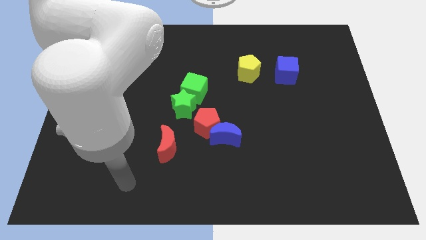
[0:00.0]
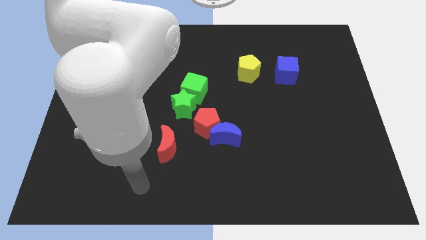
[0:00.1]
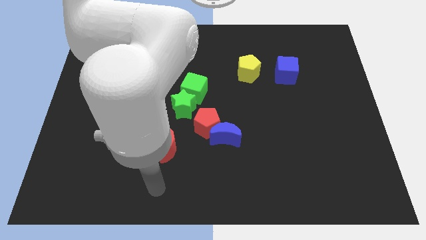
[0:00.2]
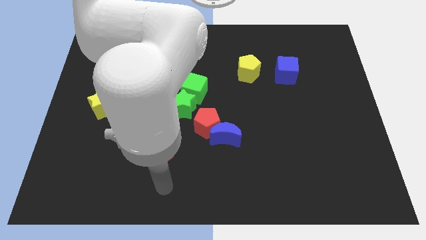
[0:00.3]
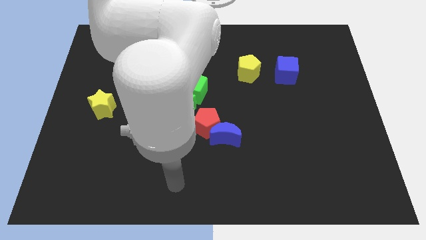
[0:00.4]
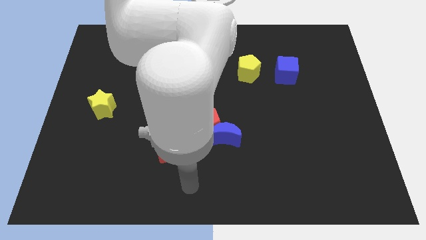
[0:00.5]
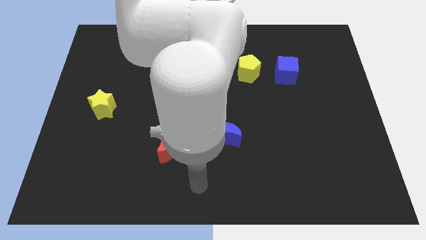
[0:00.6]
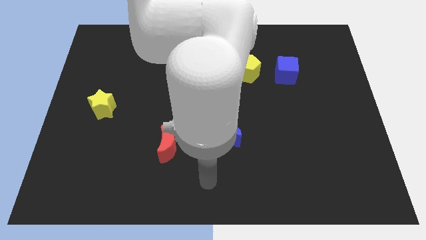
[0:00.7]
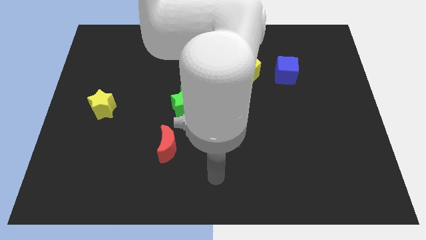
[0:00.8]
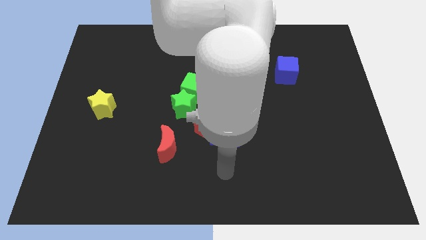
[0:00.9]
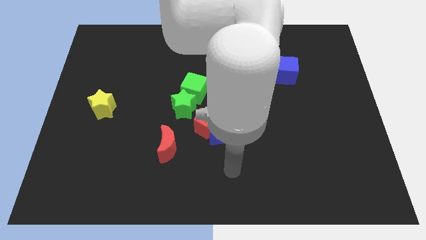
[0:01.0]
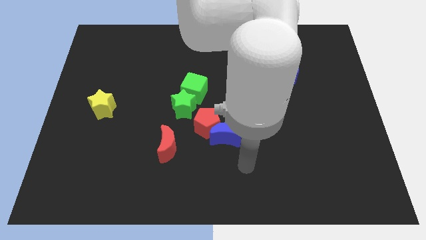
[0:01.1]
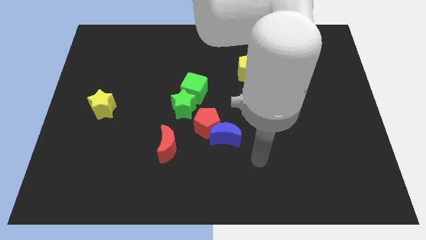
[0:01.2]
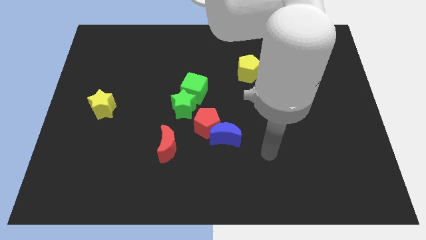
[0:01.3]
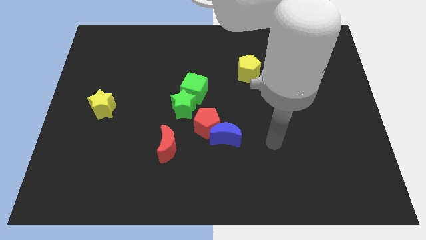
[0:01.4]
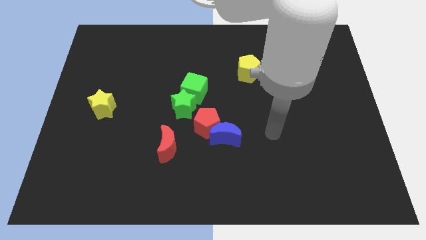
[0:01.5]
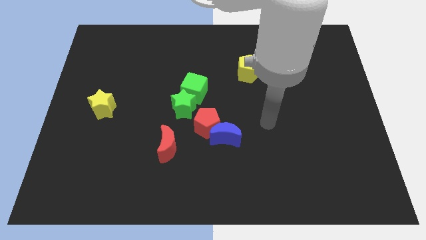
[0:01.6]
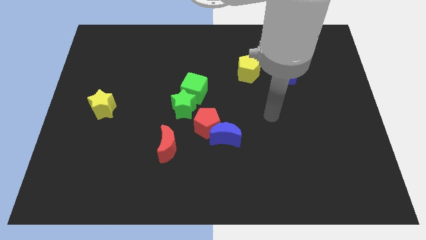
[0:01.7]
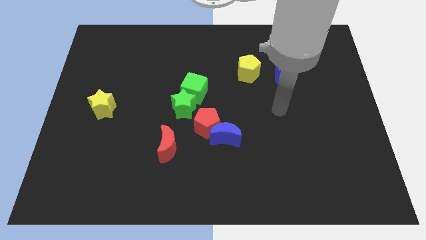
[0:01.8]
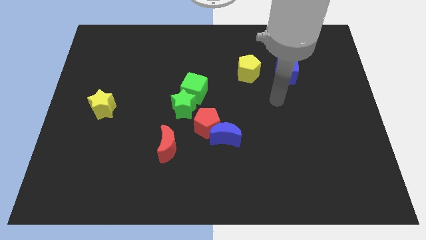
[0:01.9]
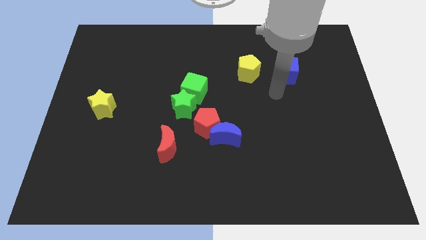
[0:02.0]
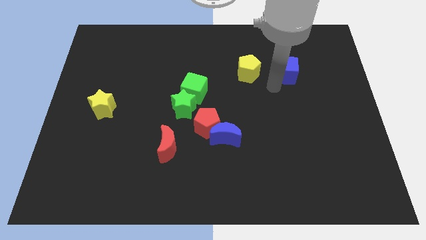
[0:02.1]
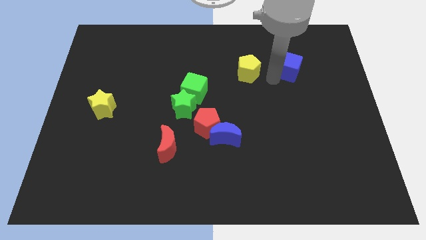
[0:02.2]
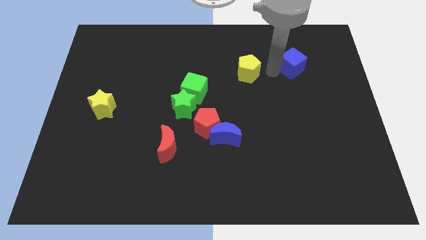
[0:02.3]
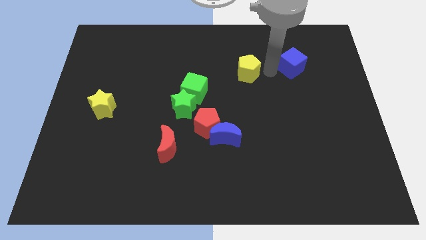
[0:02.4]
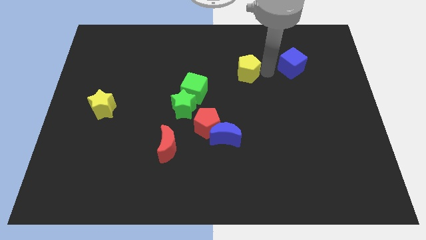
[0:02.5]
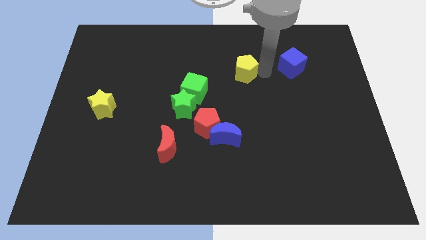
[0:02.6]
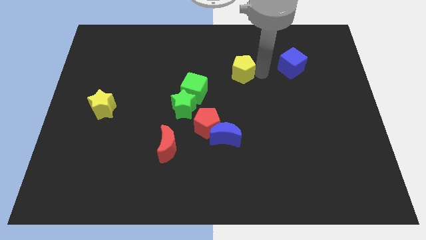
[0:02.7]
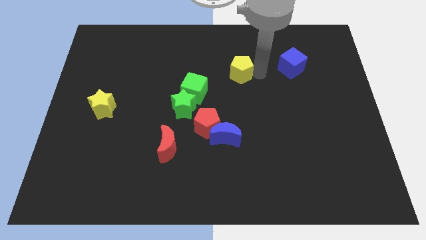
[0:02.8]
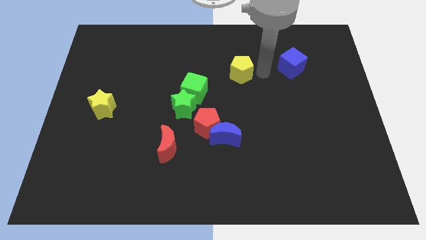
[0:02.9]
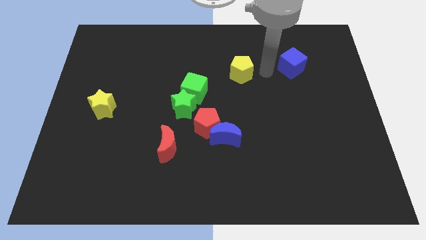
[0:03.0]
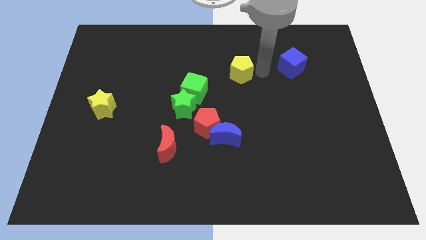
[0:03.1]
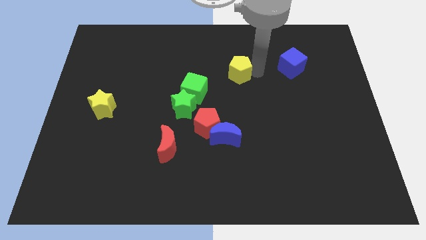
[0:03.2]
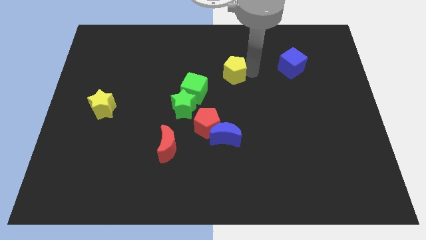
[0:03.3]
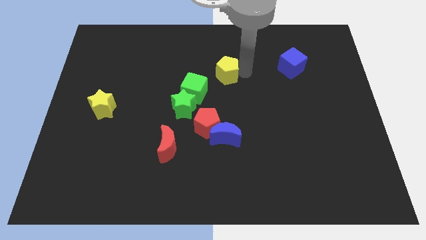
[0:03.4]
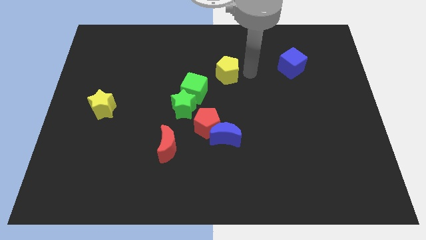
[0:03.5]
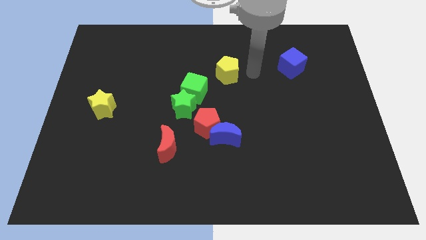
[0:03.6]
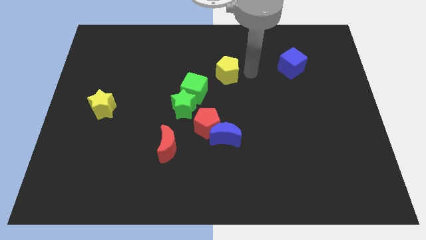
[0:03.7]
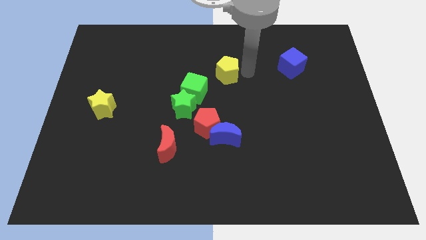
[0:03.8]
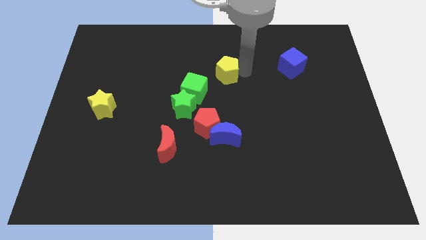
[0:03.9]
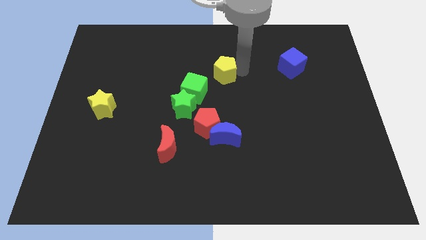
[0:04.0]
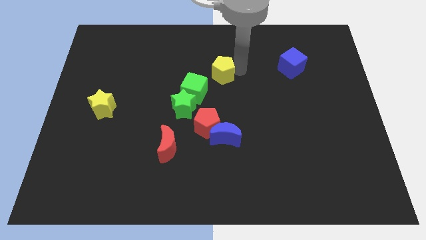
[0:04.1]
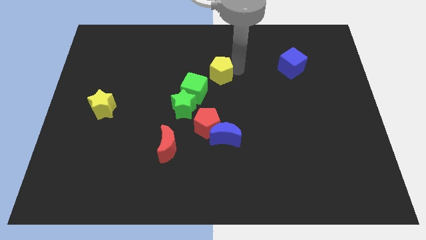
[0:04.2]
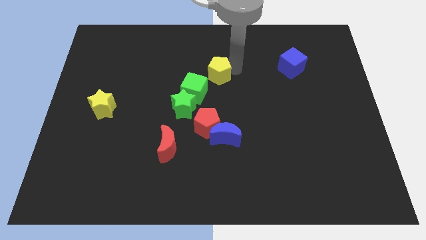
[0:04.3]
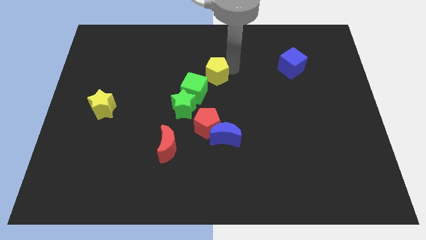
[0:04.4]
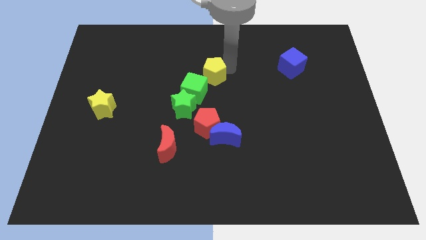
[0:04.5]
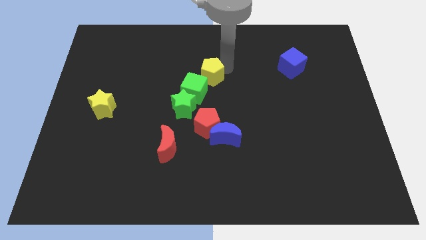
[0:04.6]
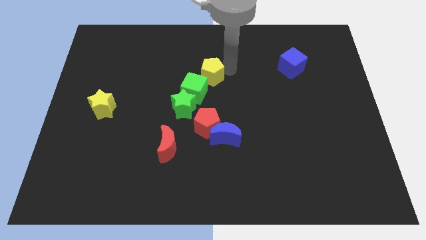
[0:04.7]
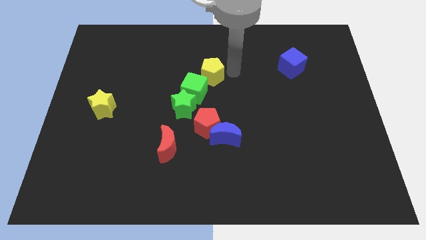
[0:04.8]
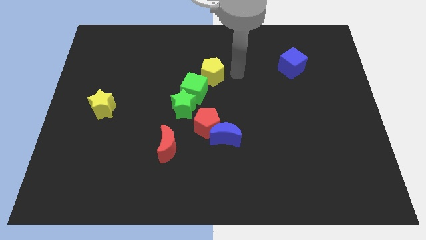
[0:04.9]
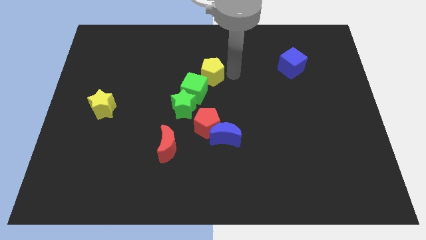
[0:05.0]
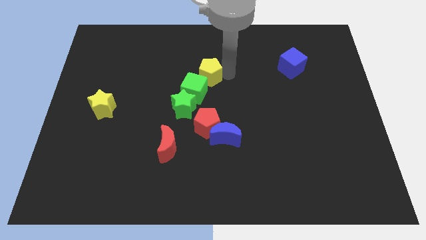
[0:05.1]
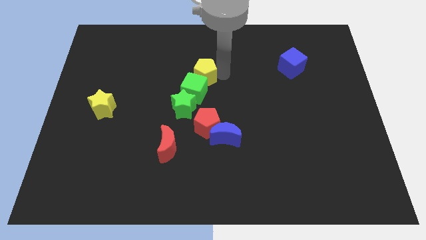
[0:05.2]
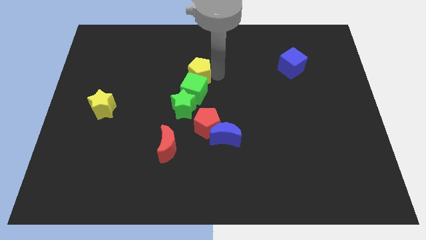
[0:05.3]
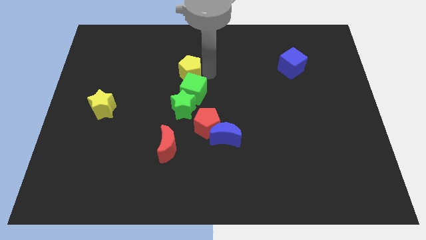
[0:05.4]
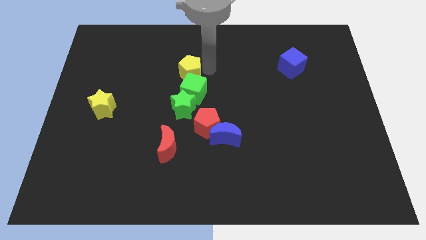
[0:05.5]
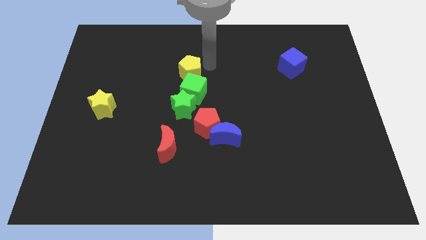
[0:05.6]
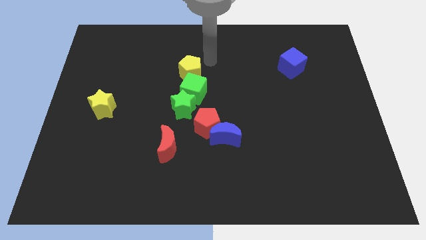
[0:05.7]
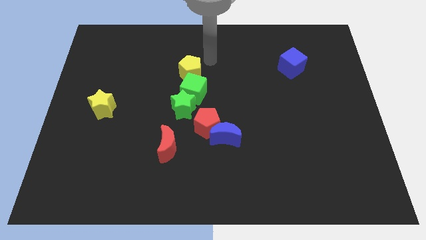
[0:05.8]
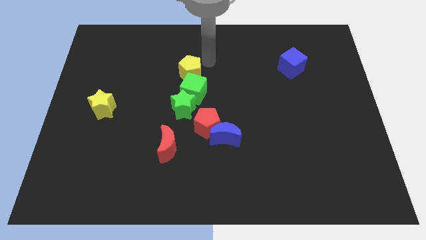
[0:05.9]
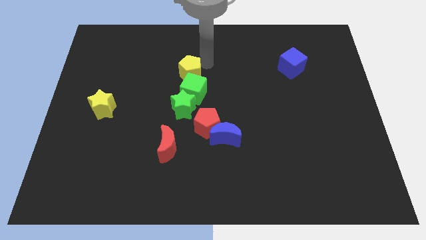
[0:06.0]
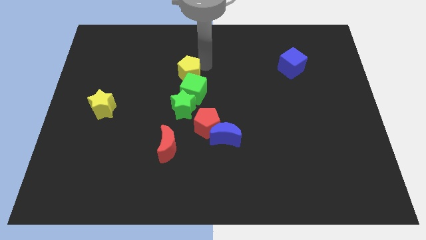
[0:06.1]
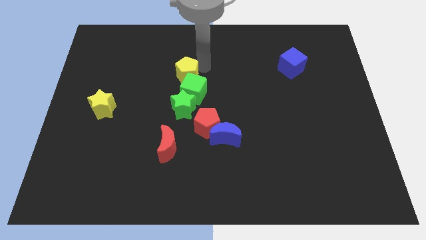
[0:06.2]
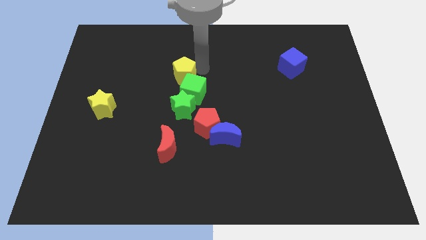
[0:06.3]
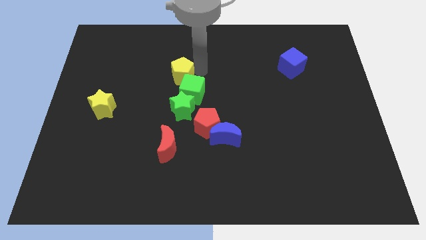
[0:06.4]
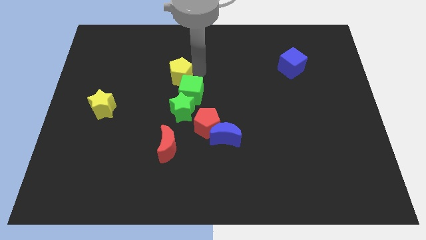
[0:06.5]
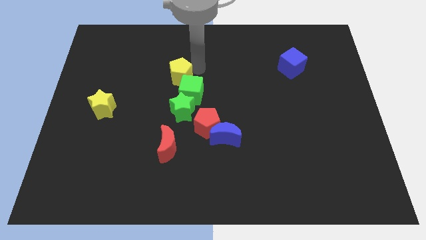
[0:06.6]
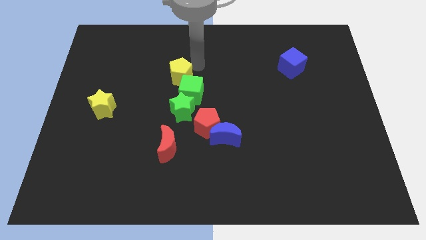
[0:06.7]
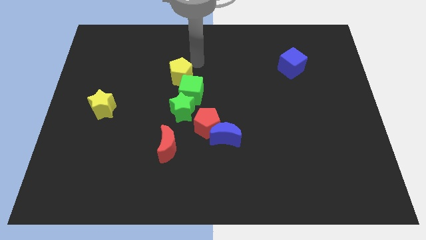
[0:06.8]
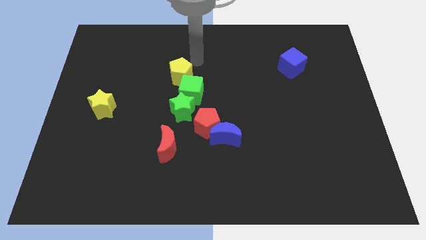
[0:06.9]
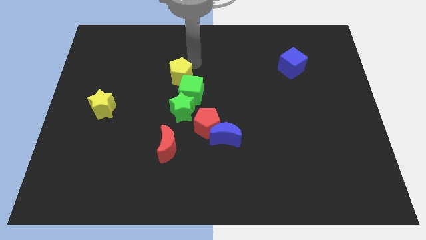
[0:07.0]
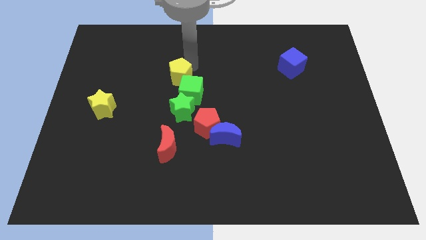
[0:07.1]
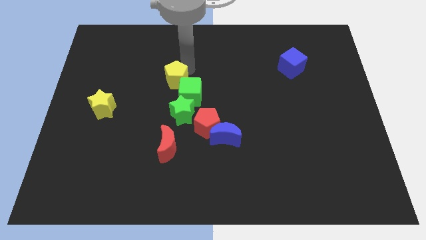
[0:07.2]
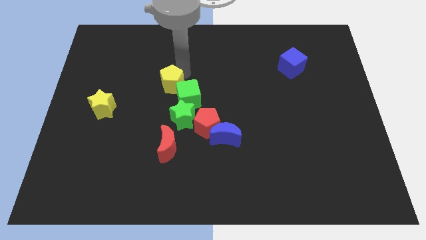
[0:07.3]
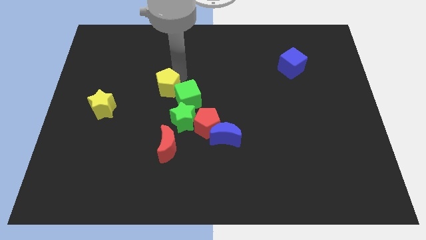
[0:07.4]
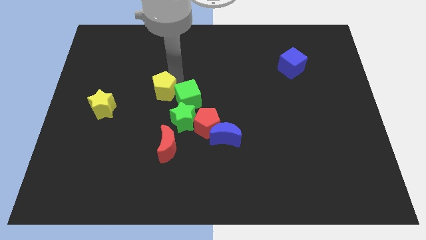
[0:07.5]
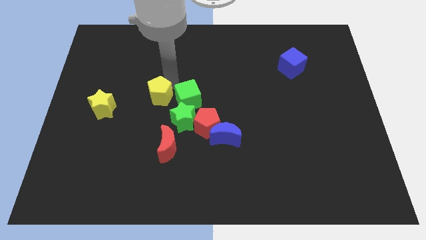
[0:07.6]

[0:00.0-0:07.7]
put the yellow pentagon just right of the yellow star

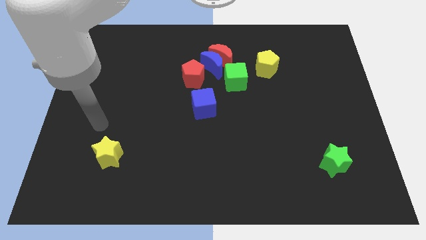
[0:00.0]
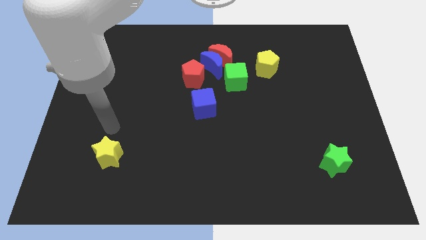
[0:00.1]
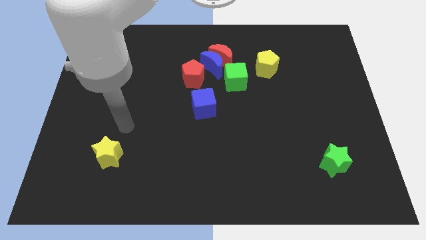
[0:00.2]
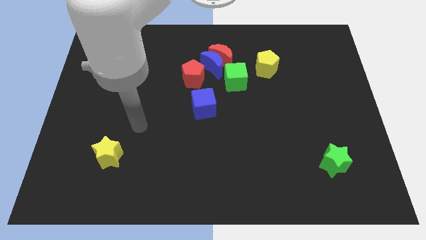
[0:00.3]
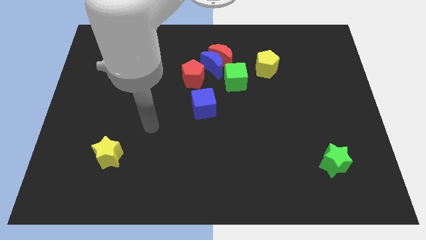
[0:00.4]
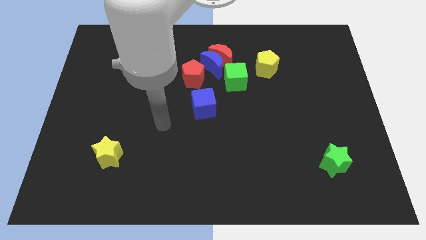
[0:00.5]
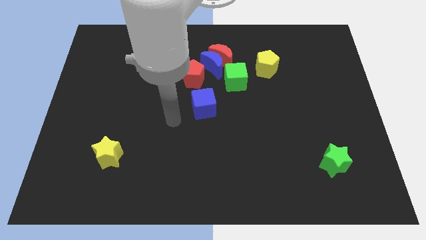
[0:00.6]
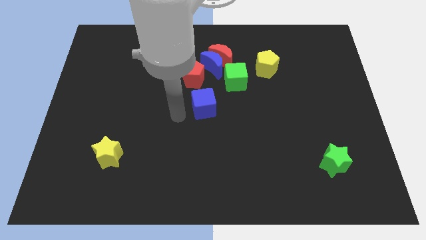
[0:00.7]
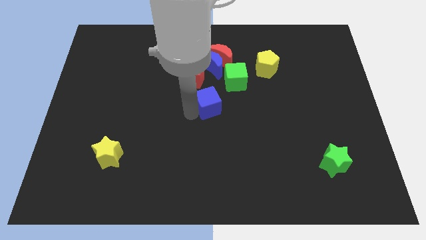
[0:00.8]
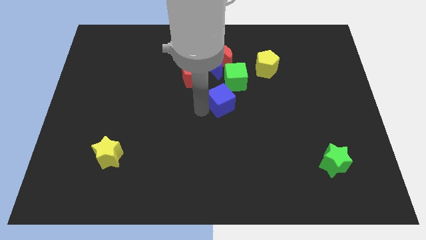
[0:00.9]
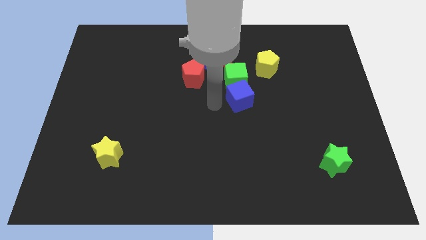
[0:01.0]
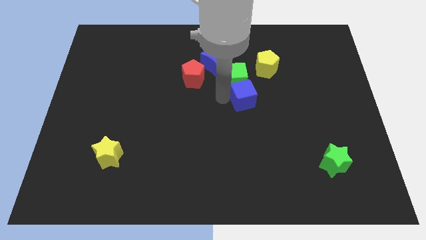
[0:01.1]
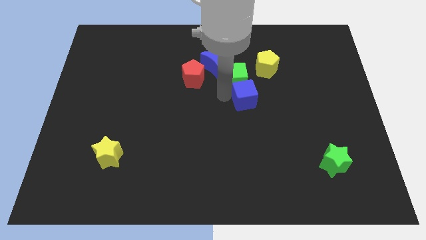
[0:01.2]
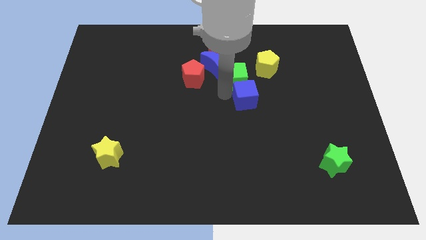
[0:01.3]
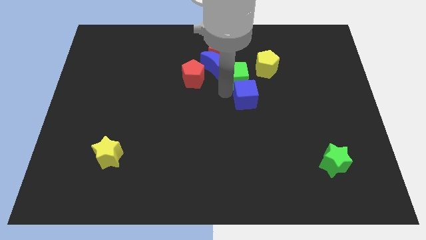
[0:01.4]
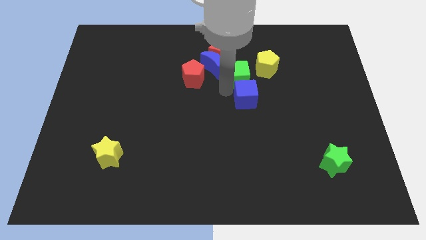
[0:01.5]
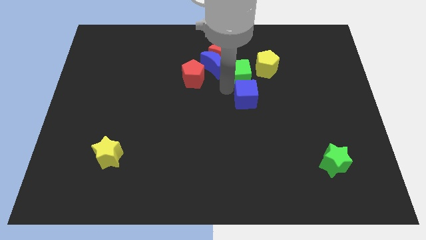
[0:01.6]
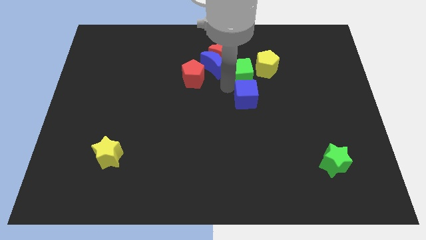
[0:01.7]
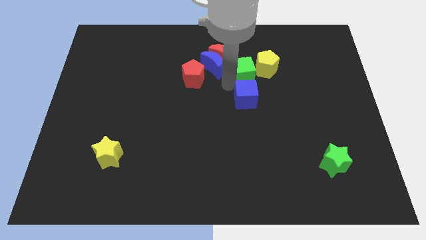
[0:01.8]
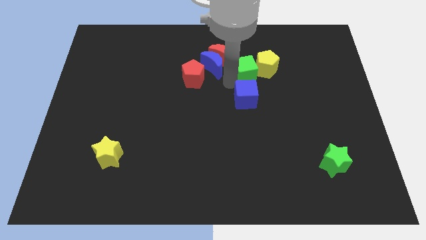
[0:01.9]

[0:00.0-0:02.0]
put the green cube right of the red moon
